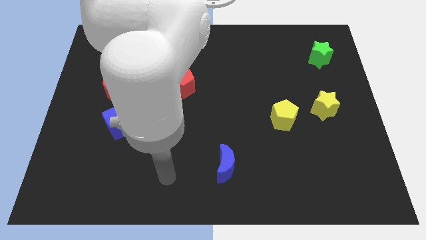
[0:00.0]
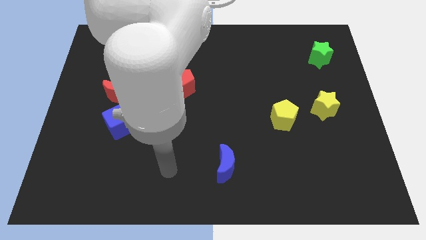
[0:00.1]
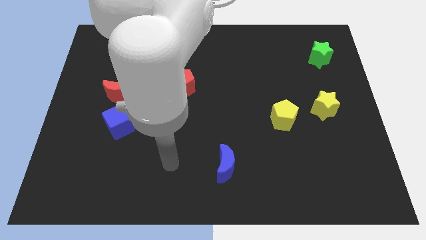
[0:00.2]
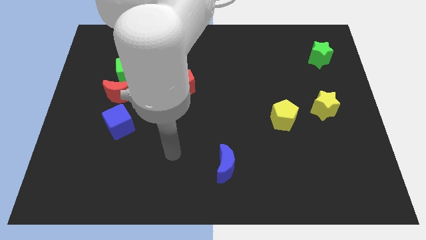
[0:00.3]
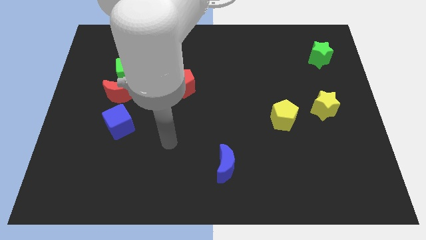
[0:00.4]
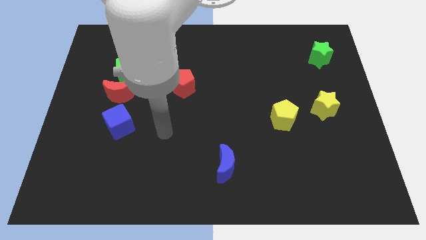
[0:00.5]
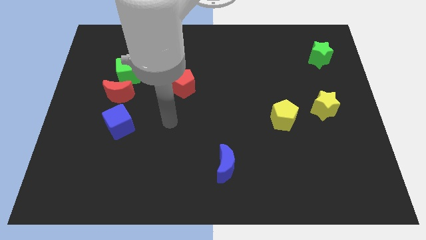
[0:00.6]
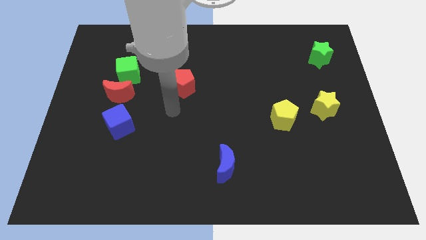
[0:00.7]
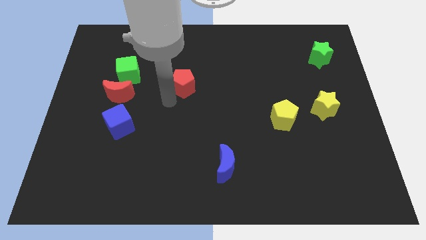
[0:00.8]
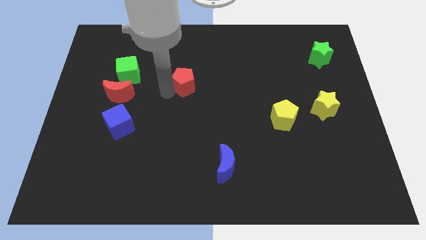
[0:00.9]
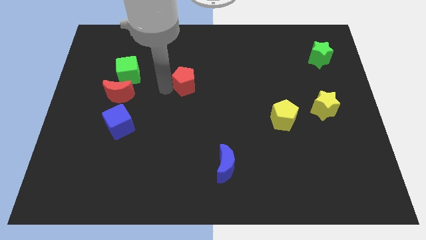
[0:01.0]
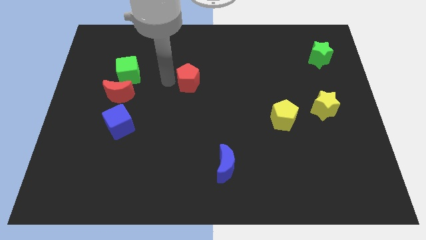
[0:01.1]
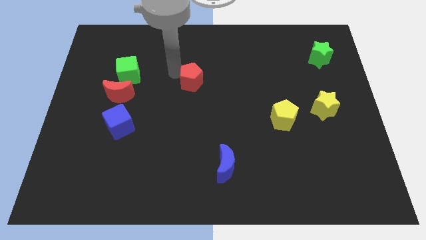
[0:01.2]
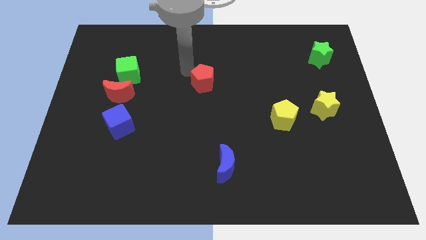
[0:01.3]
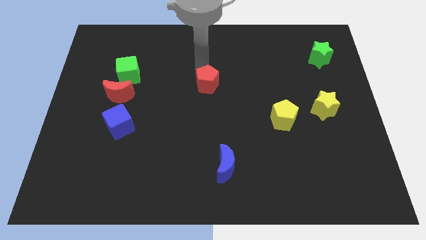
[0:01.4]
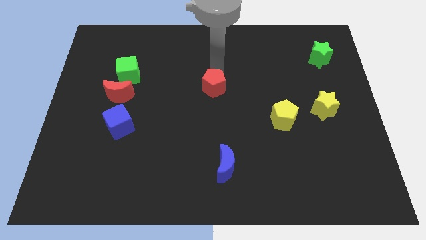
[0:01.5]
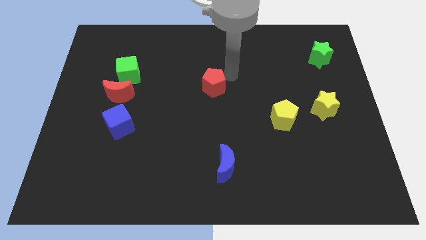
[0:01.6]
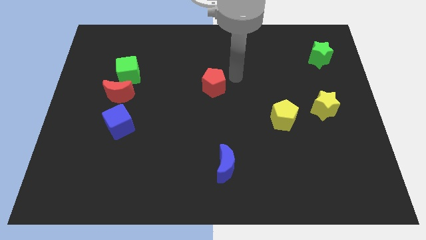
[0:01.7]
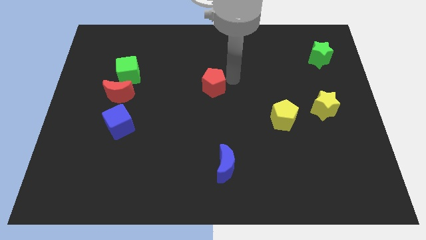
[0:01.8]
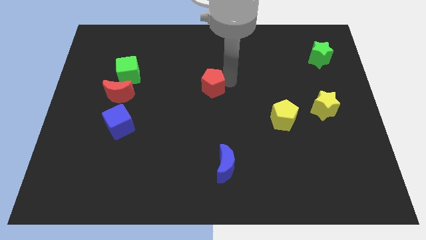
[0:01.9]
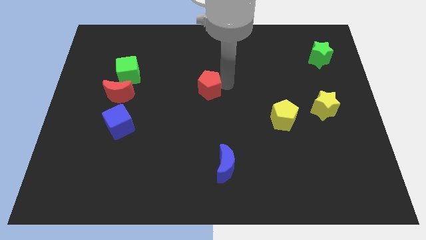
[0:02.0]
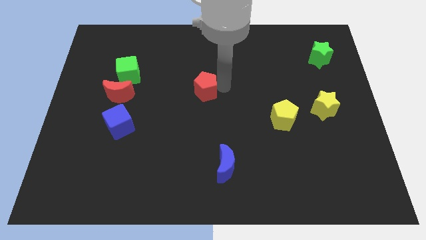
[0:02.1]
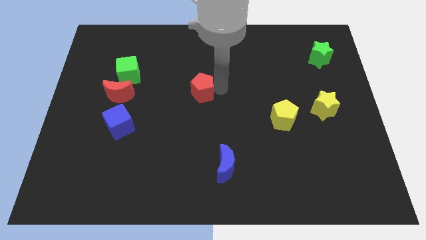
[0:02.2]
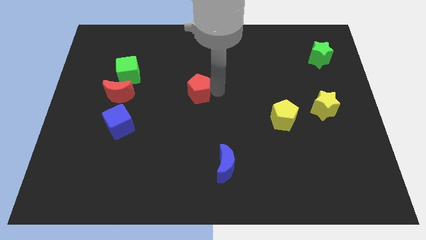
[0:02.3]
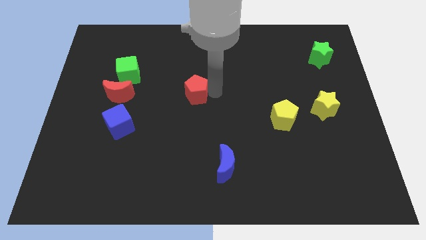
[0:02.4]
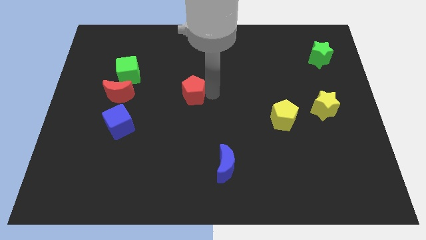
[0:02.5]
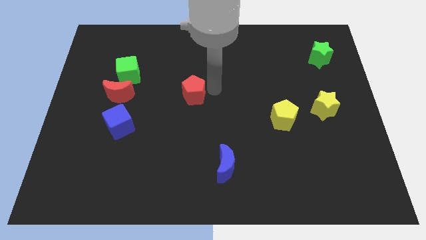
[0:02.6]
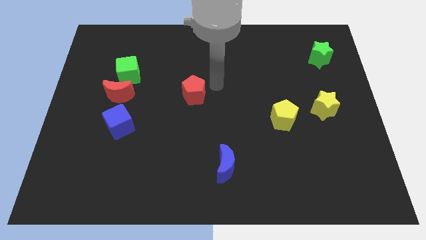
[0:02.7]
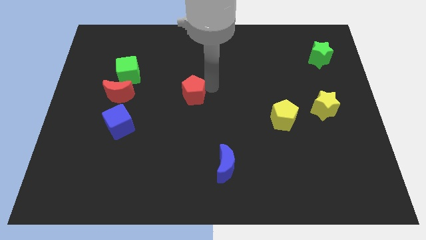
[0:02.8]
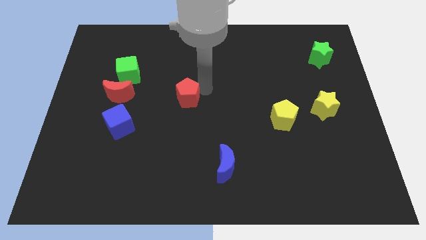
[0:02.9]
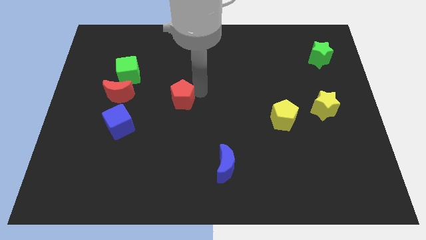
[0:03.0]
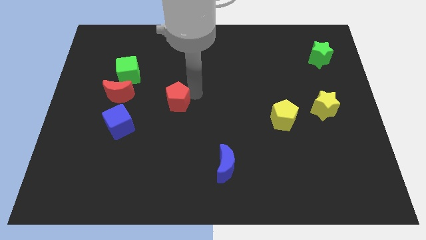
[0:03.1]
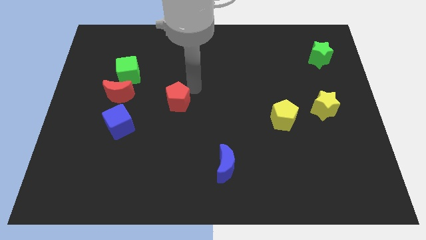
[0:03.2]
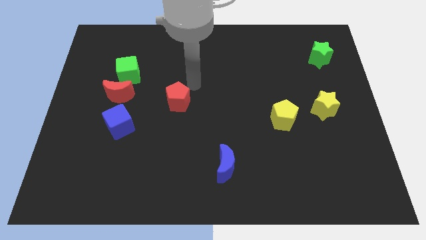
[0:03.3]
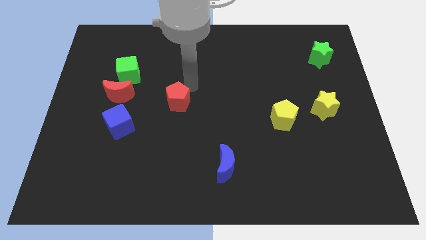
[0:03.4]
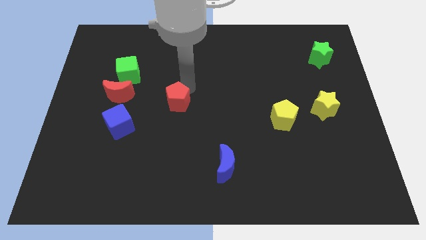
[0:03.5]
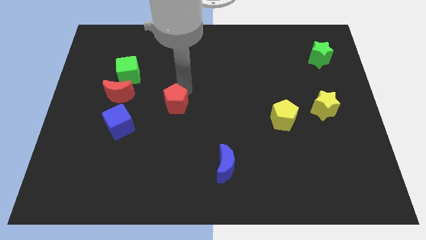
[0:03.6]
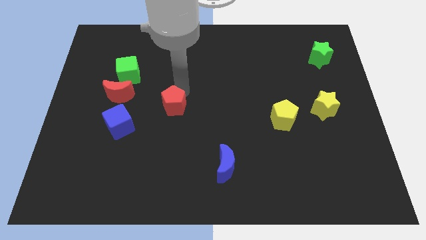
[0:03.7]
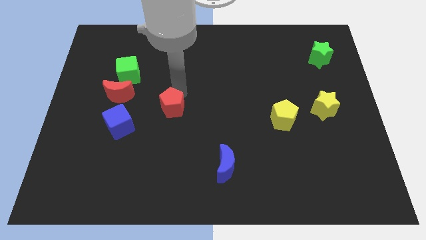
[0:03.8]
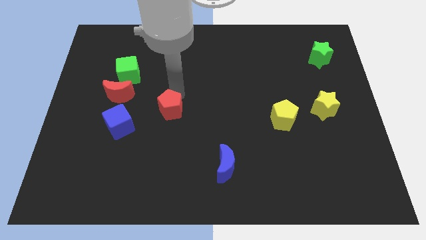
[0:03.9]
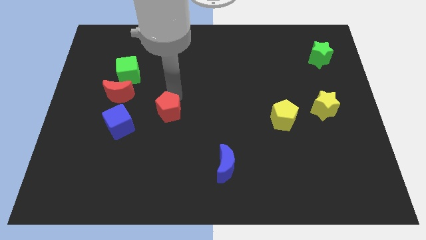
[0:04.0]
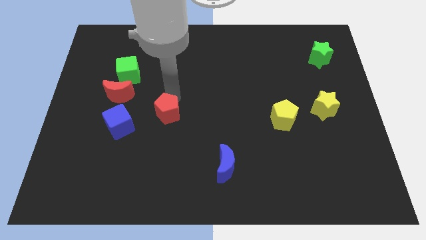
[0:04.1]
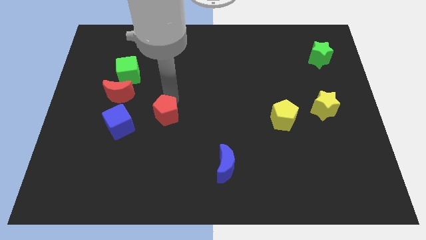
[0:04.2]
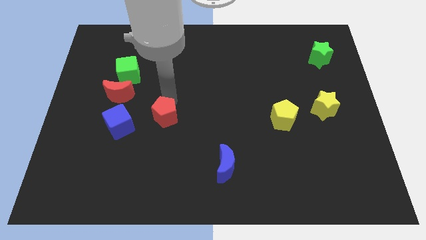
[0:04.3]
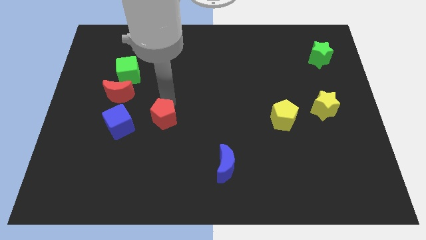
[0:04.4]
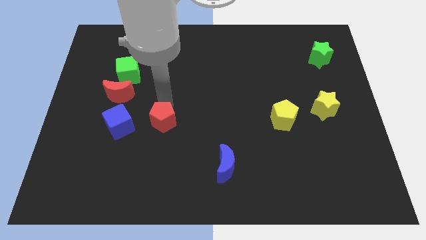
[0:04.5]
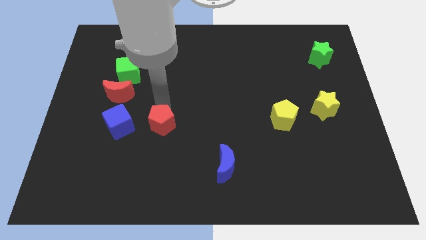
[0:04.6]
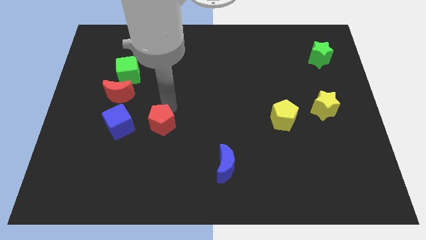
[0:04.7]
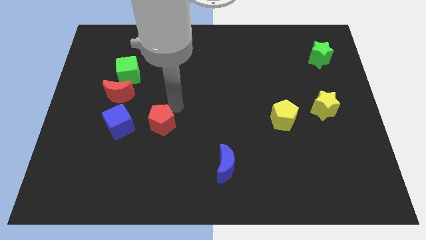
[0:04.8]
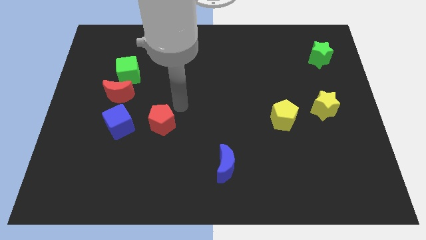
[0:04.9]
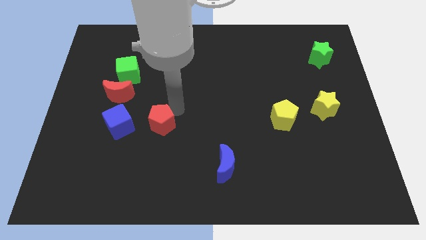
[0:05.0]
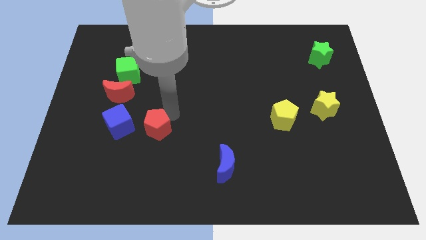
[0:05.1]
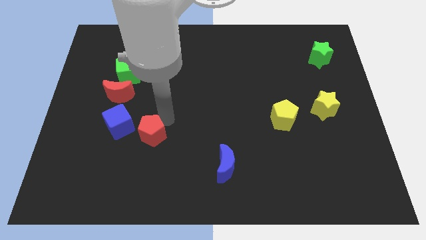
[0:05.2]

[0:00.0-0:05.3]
put the red pentagon to the bottom right of the blue cube

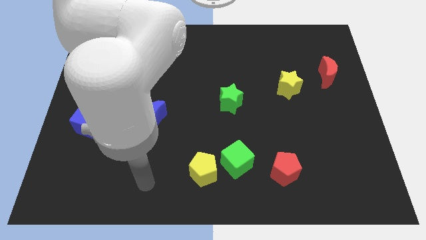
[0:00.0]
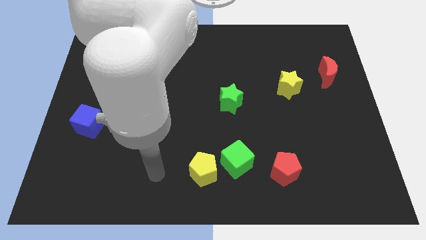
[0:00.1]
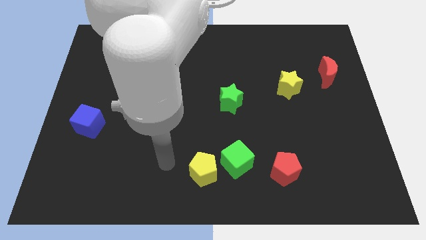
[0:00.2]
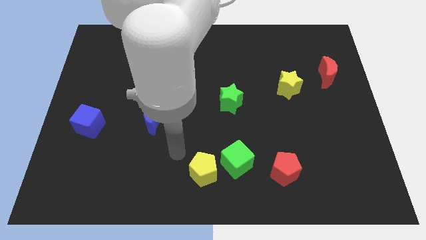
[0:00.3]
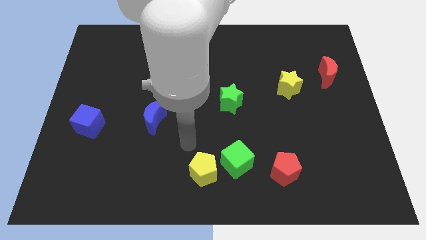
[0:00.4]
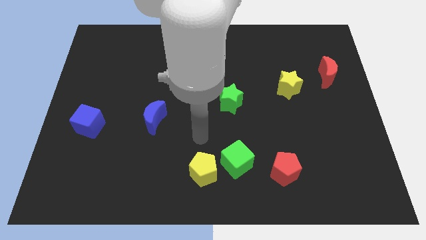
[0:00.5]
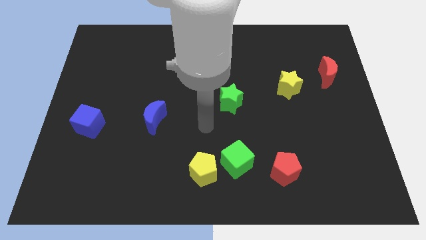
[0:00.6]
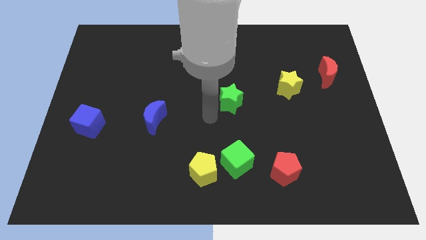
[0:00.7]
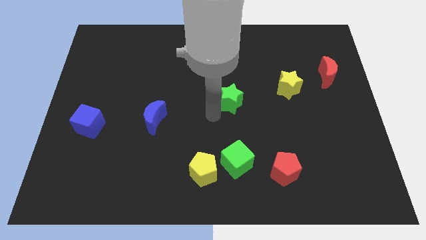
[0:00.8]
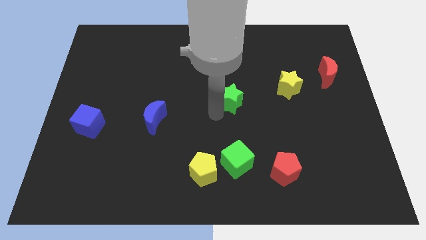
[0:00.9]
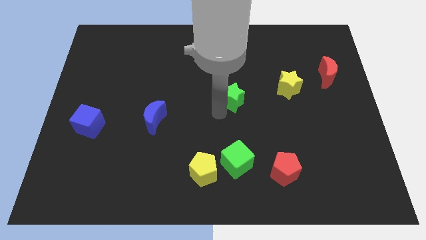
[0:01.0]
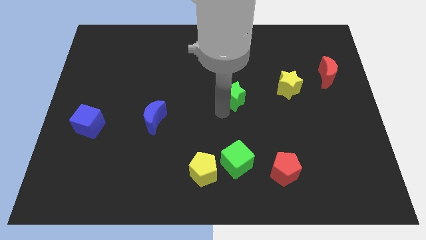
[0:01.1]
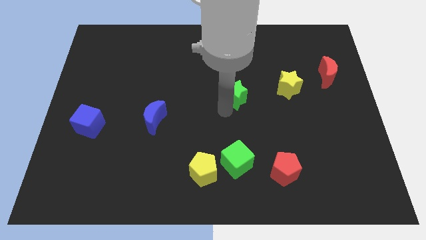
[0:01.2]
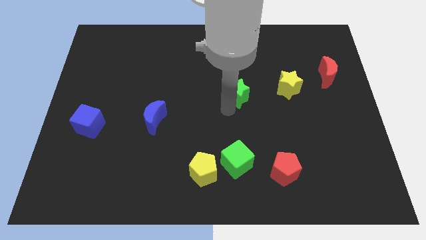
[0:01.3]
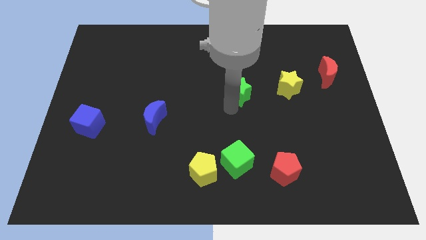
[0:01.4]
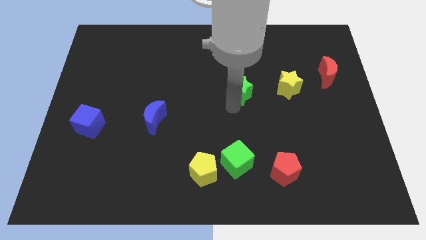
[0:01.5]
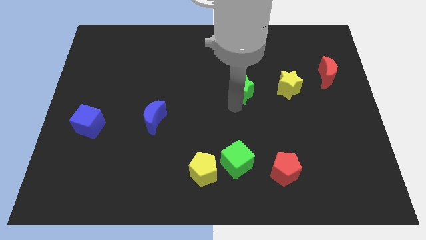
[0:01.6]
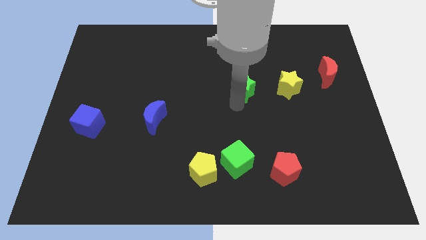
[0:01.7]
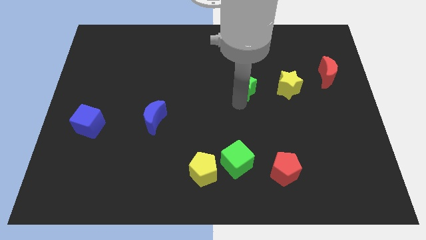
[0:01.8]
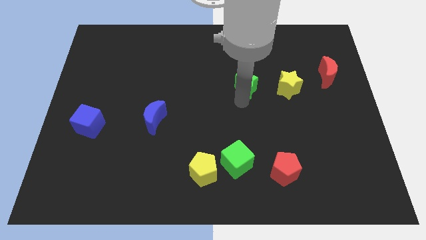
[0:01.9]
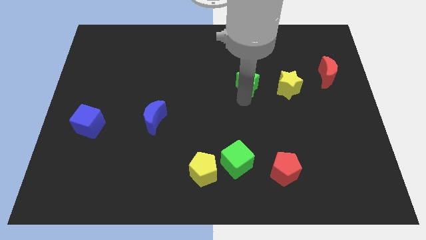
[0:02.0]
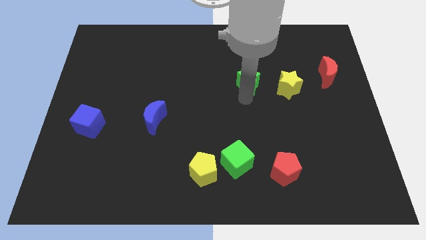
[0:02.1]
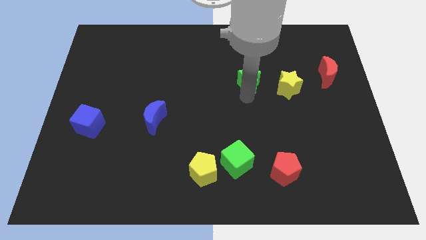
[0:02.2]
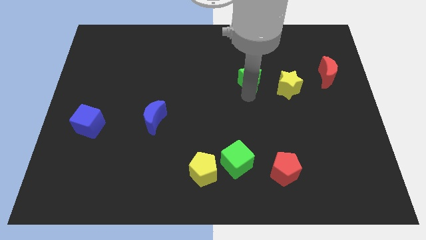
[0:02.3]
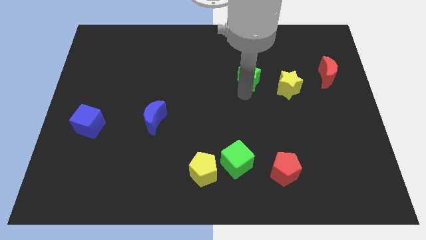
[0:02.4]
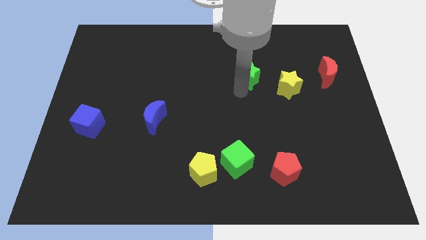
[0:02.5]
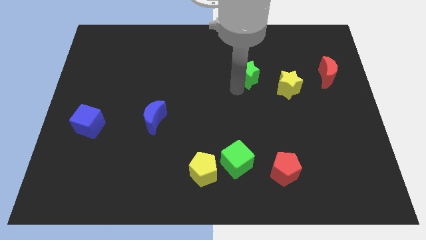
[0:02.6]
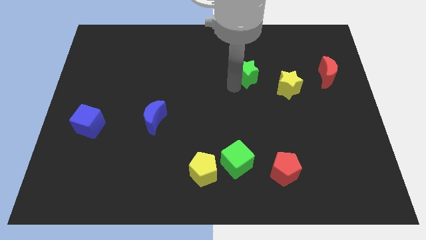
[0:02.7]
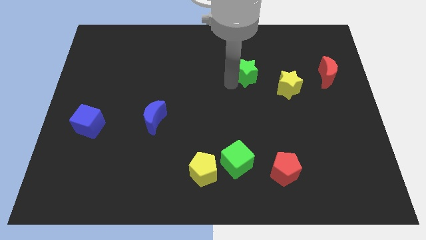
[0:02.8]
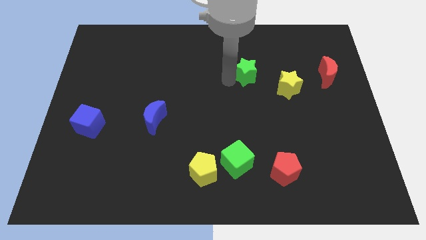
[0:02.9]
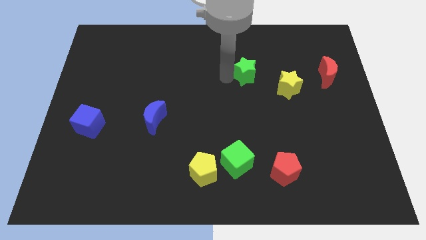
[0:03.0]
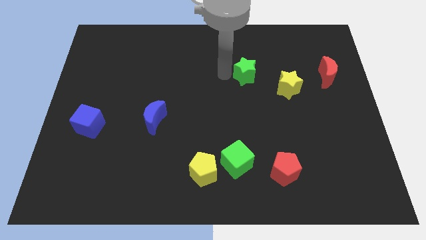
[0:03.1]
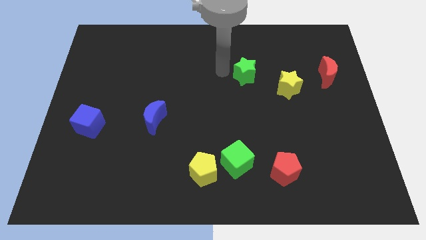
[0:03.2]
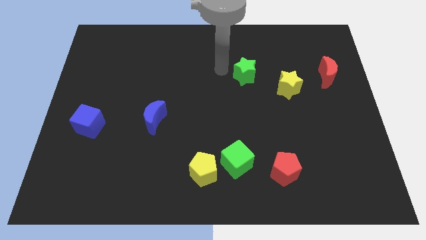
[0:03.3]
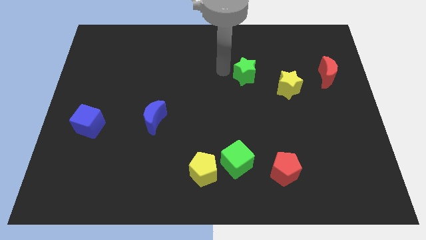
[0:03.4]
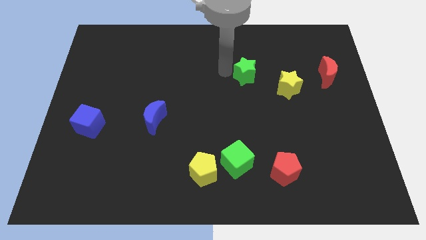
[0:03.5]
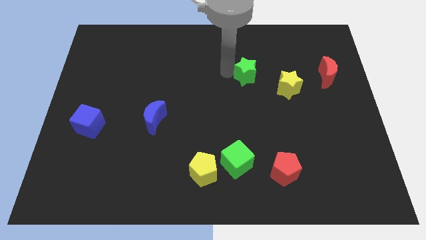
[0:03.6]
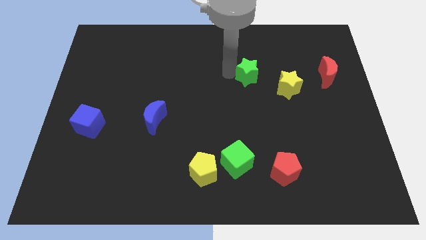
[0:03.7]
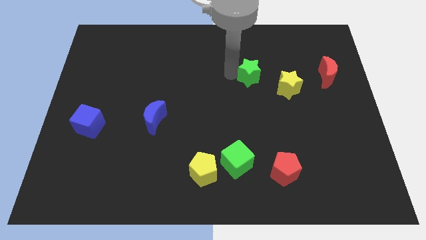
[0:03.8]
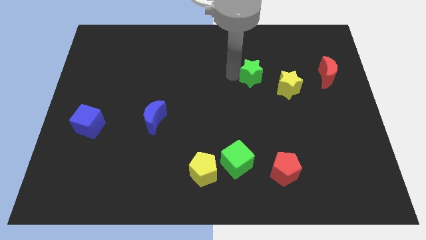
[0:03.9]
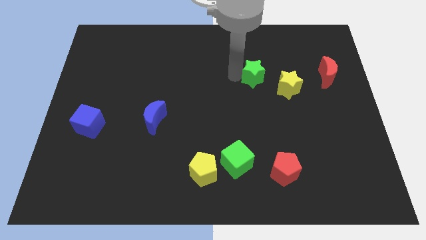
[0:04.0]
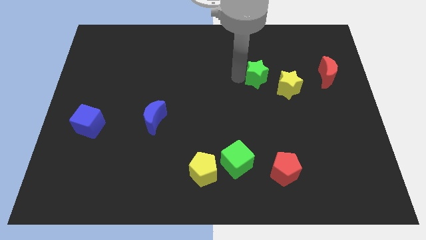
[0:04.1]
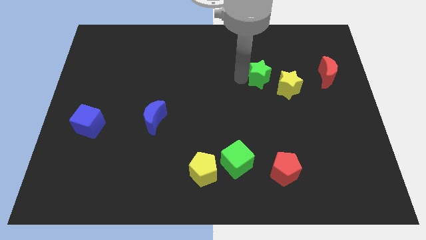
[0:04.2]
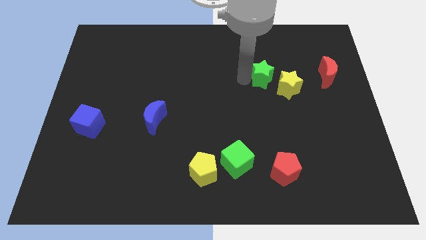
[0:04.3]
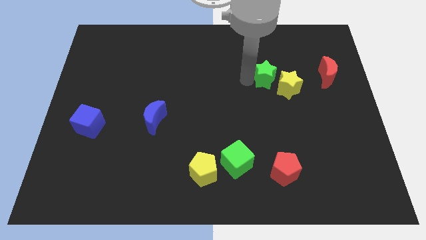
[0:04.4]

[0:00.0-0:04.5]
slide the green star just left of the red moon
